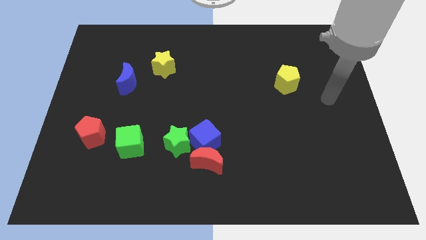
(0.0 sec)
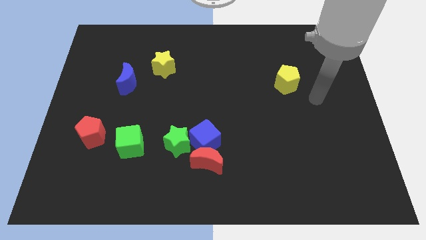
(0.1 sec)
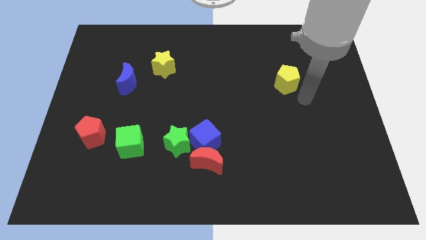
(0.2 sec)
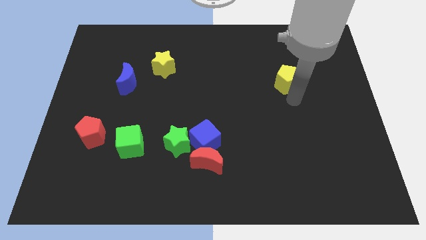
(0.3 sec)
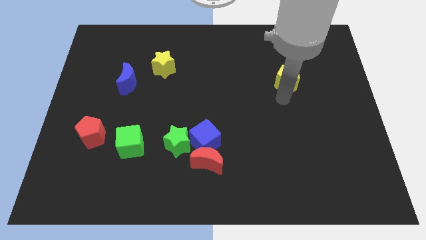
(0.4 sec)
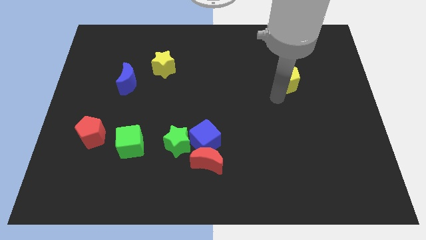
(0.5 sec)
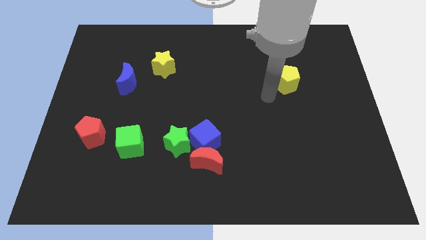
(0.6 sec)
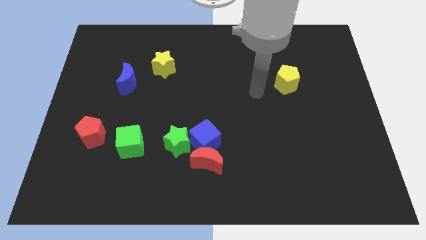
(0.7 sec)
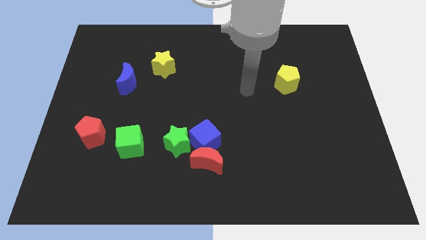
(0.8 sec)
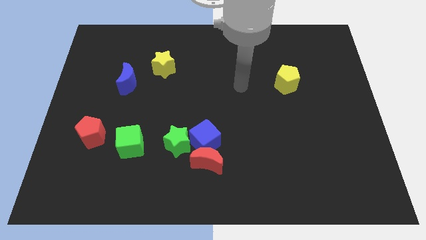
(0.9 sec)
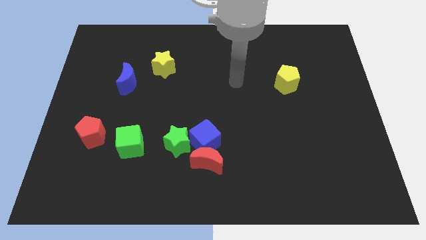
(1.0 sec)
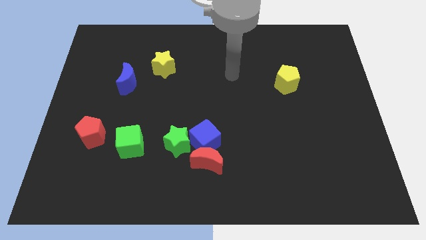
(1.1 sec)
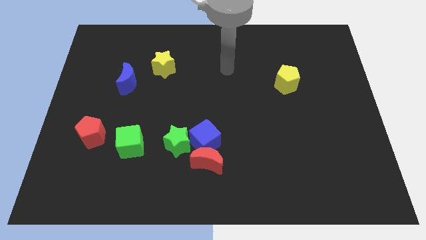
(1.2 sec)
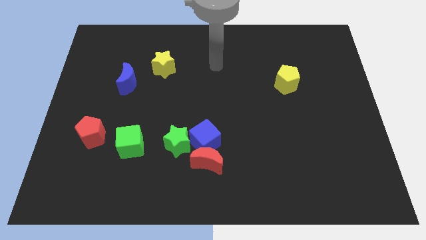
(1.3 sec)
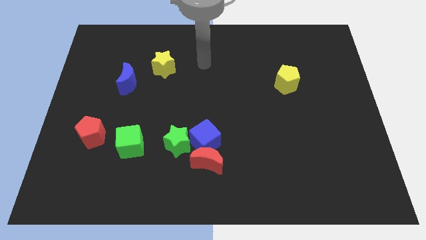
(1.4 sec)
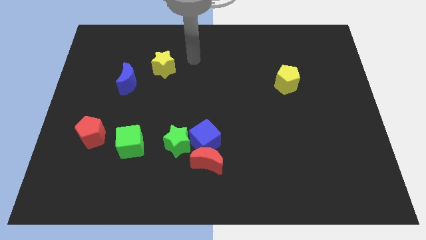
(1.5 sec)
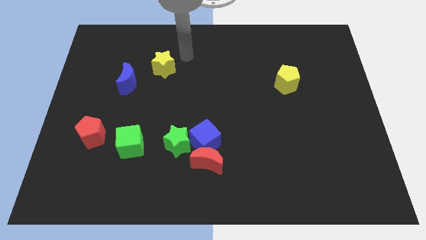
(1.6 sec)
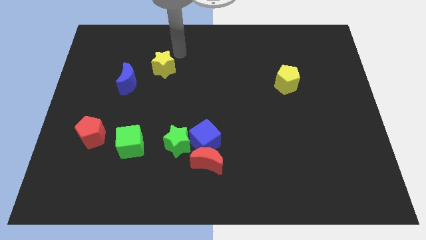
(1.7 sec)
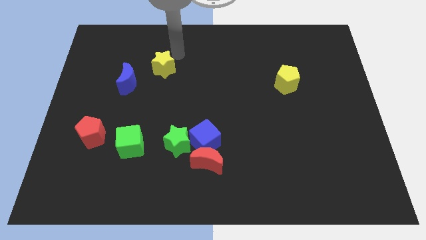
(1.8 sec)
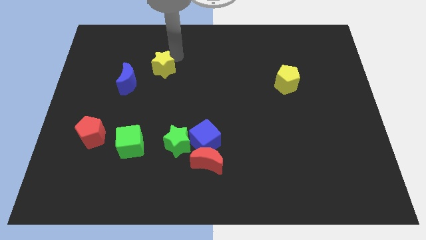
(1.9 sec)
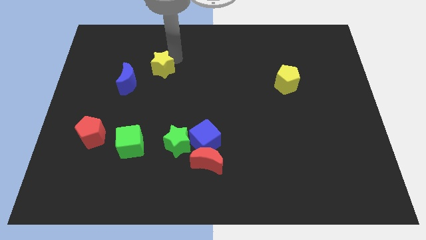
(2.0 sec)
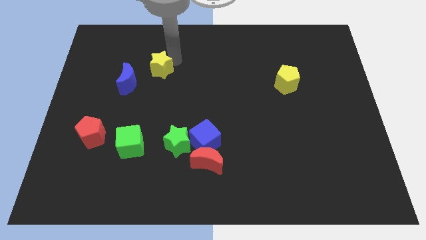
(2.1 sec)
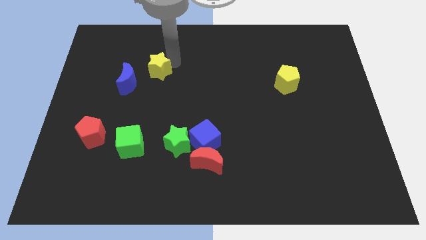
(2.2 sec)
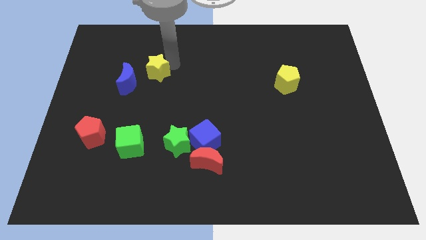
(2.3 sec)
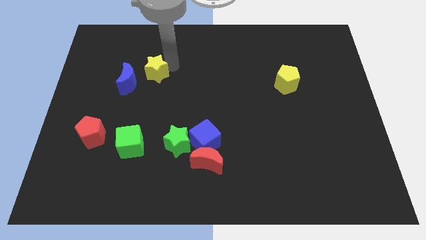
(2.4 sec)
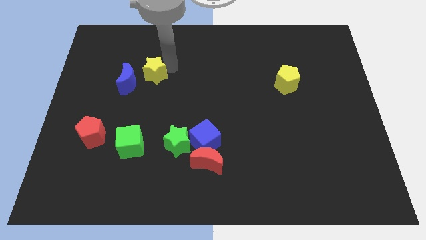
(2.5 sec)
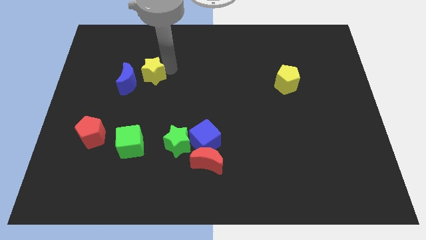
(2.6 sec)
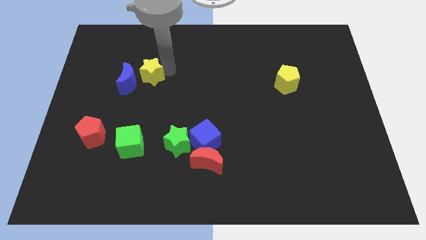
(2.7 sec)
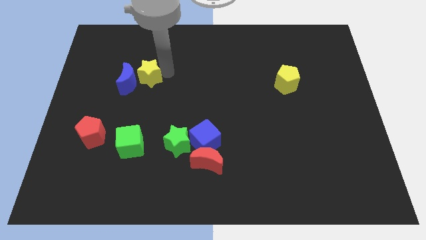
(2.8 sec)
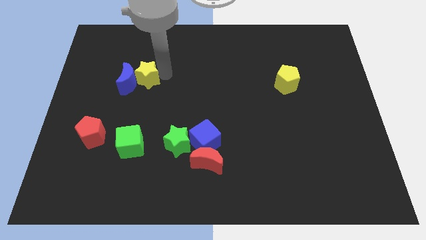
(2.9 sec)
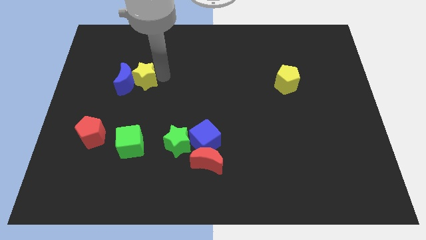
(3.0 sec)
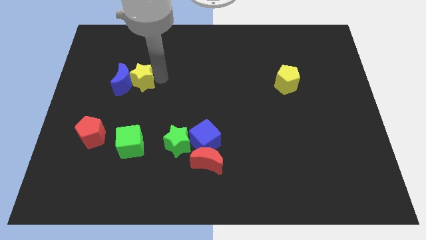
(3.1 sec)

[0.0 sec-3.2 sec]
push the yellow star a little down and left

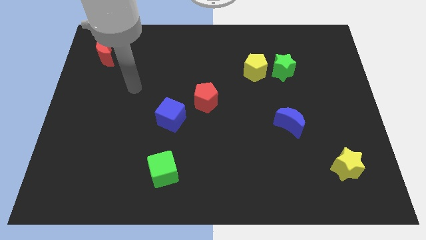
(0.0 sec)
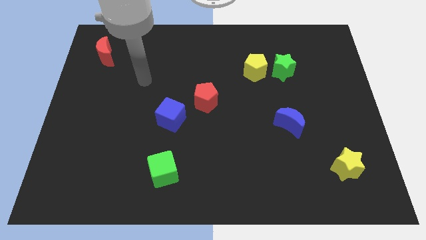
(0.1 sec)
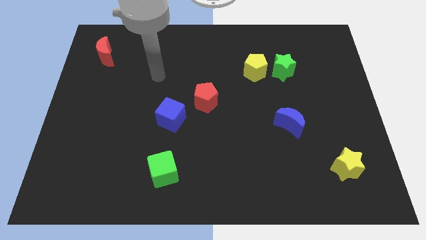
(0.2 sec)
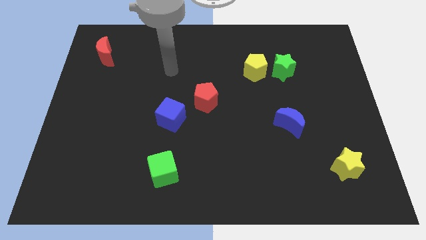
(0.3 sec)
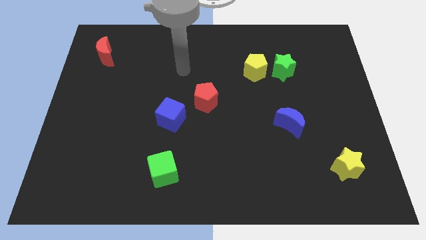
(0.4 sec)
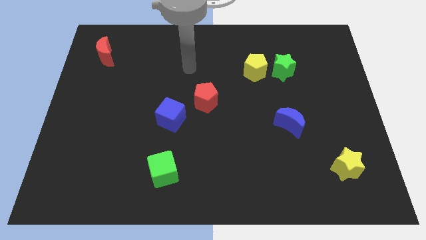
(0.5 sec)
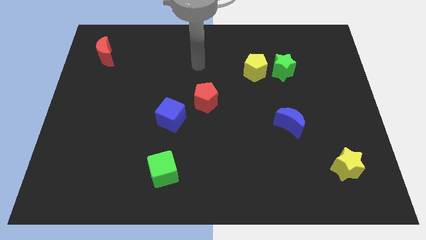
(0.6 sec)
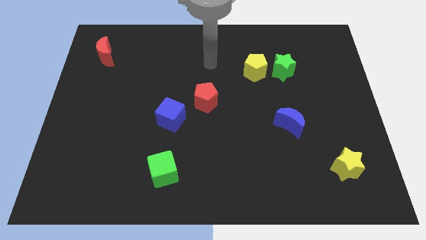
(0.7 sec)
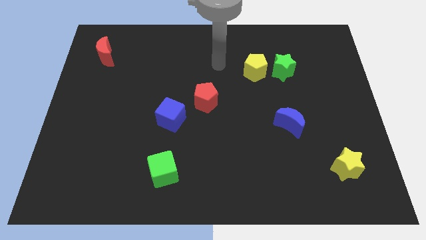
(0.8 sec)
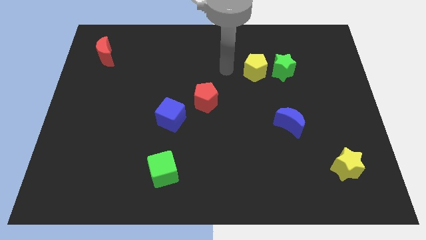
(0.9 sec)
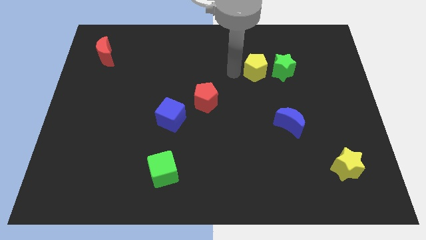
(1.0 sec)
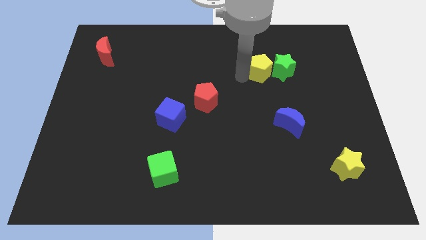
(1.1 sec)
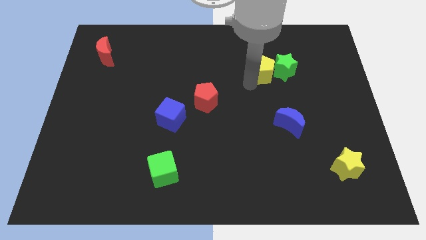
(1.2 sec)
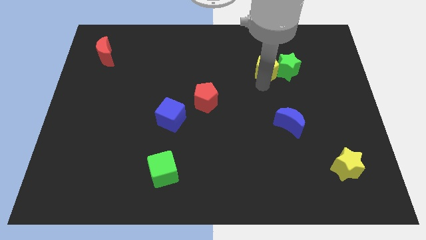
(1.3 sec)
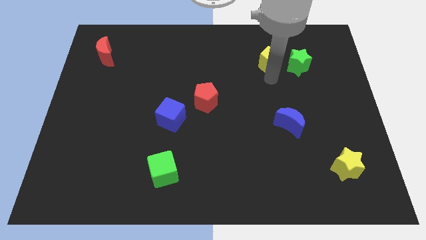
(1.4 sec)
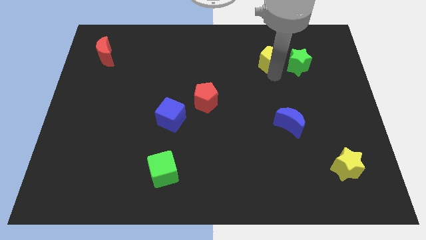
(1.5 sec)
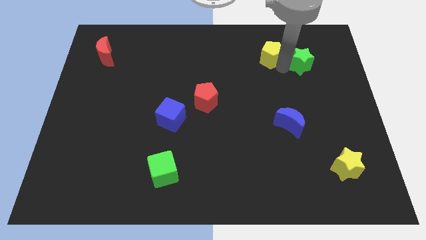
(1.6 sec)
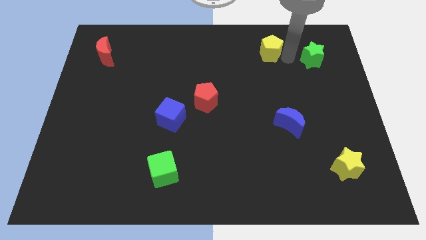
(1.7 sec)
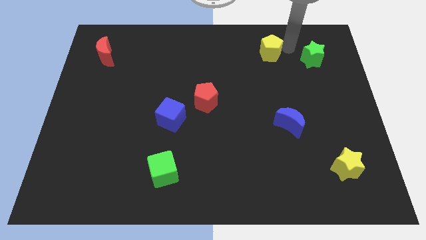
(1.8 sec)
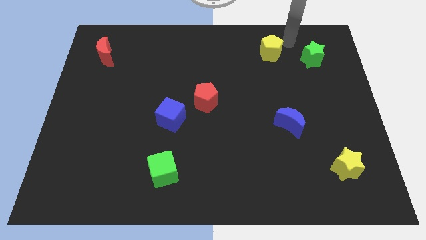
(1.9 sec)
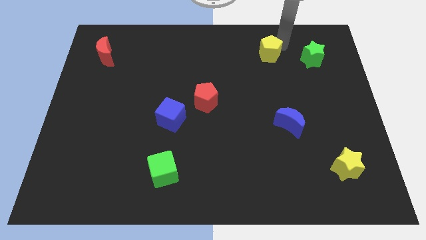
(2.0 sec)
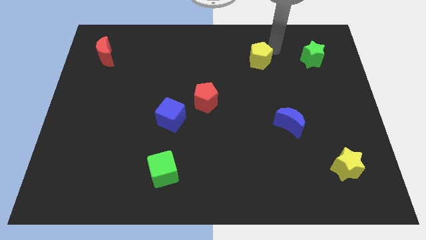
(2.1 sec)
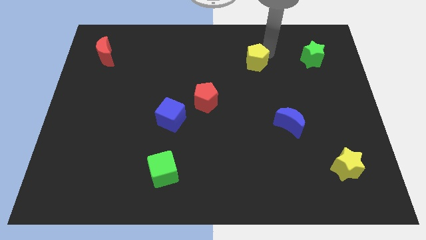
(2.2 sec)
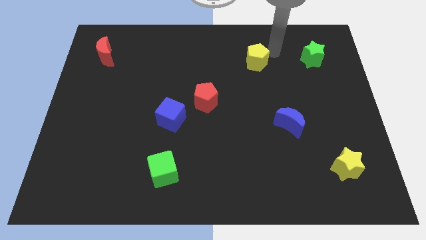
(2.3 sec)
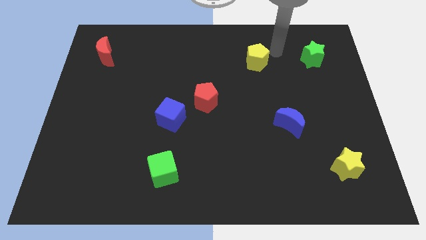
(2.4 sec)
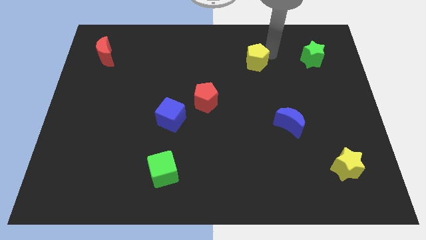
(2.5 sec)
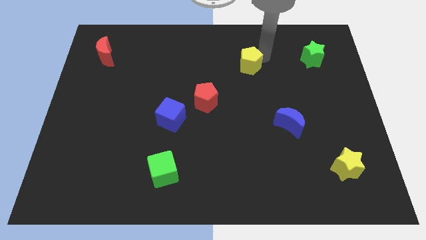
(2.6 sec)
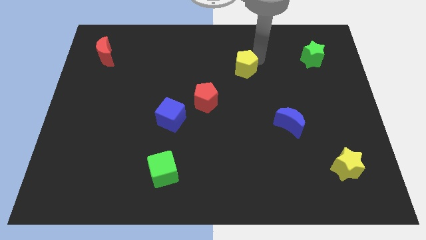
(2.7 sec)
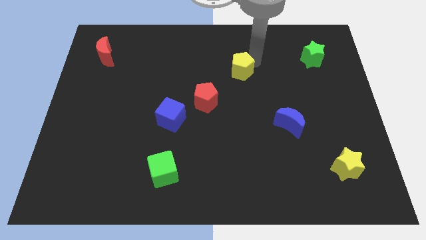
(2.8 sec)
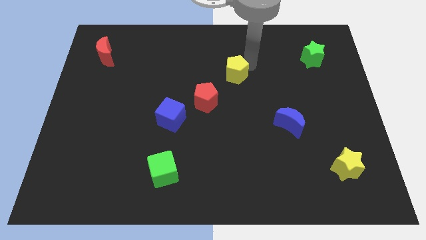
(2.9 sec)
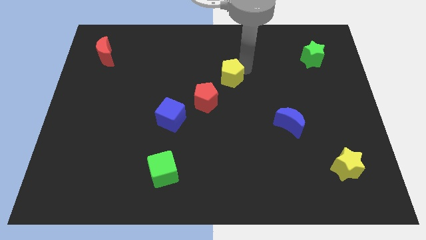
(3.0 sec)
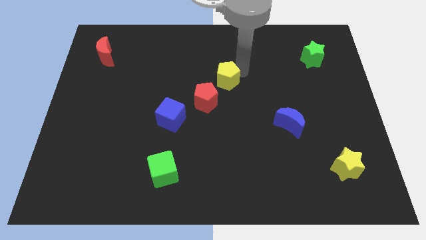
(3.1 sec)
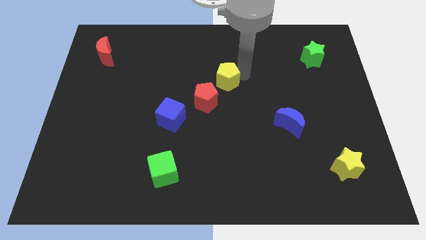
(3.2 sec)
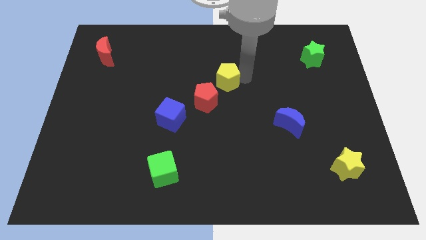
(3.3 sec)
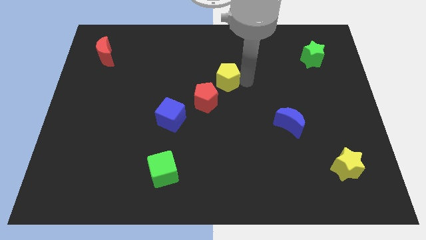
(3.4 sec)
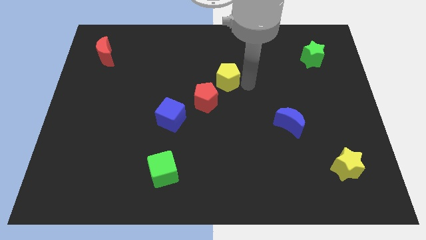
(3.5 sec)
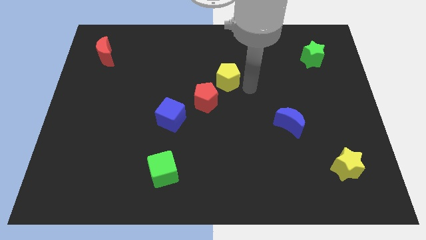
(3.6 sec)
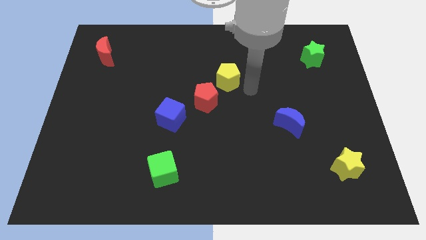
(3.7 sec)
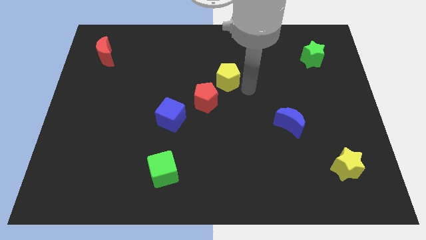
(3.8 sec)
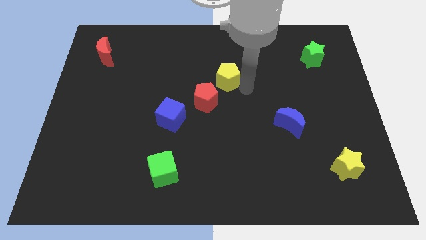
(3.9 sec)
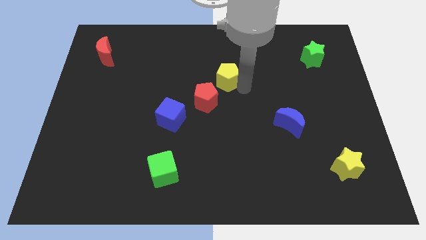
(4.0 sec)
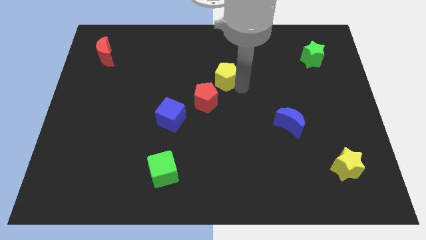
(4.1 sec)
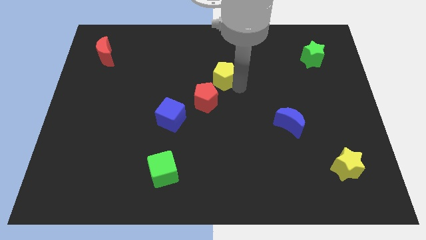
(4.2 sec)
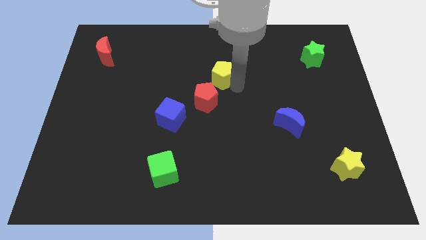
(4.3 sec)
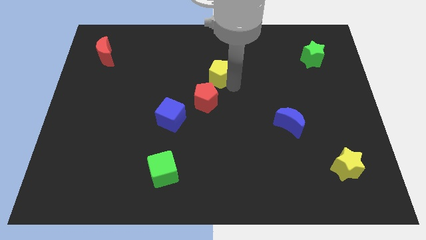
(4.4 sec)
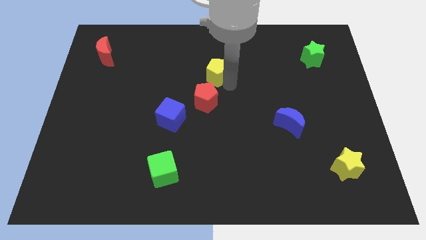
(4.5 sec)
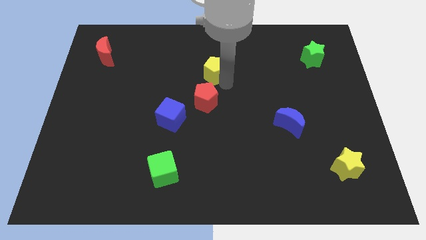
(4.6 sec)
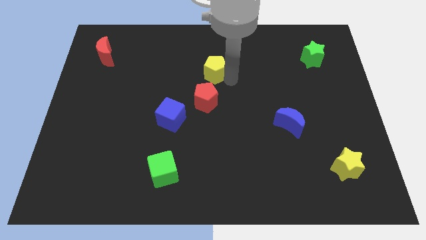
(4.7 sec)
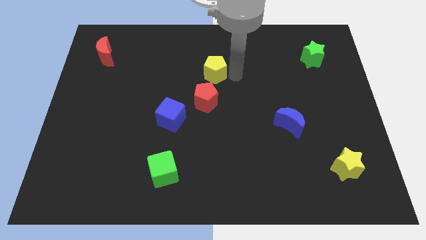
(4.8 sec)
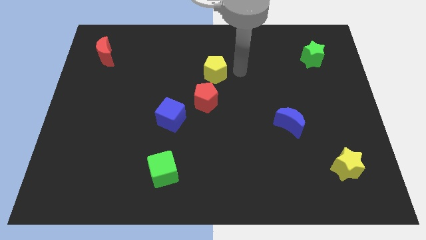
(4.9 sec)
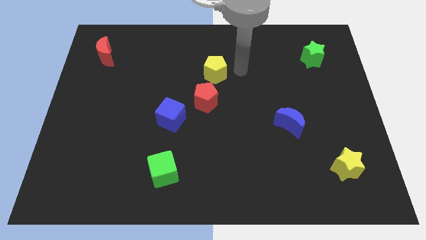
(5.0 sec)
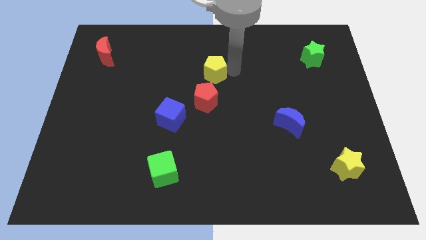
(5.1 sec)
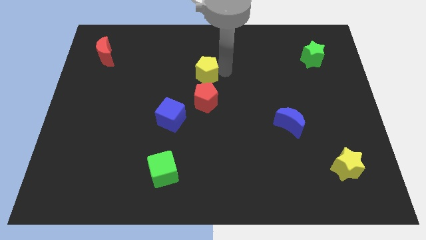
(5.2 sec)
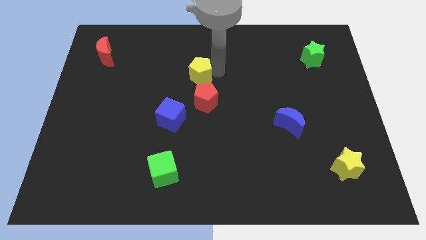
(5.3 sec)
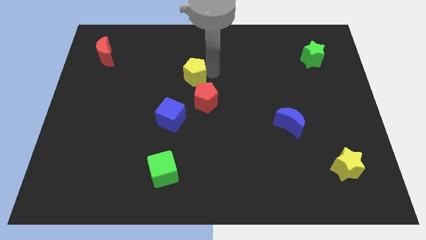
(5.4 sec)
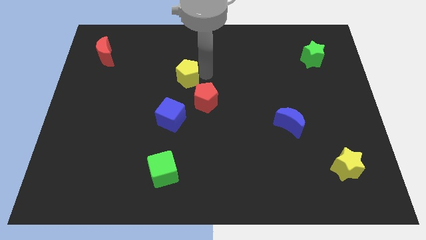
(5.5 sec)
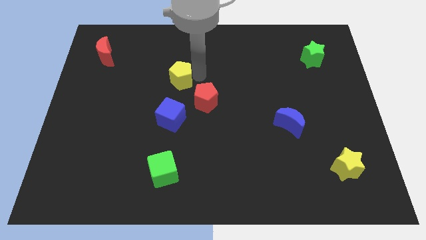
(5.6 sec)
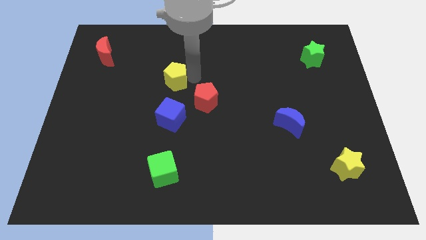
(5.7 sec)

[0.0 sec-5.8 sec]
slide the yellow pentagon to the left
